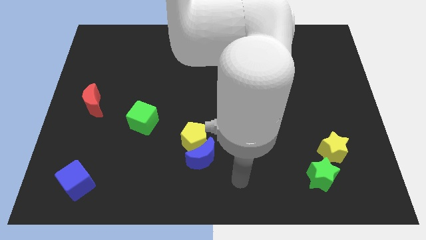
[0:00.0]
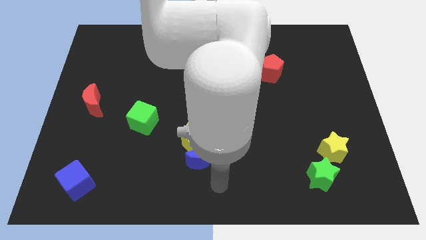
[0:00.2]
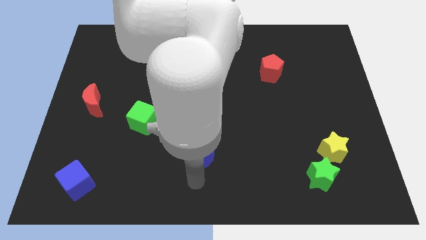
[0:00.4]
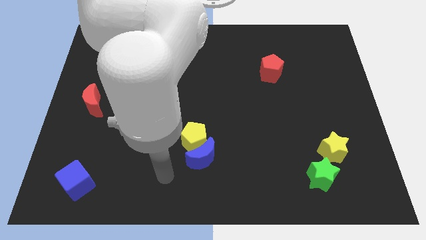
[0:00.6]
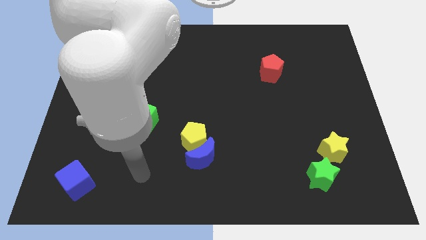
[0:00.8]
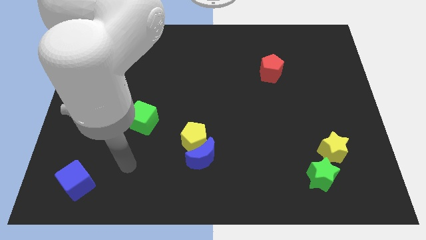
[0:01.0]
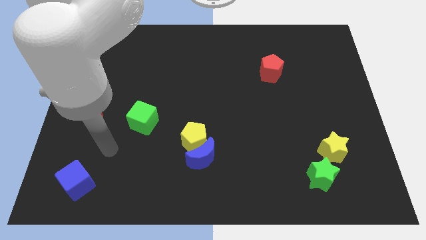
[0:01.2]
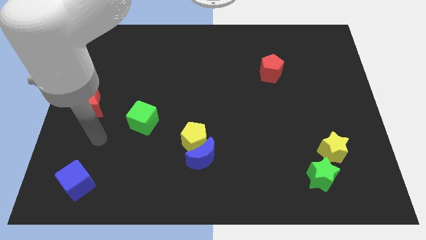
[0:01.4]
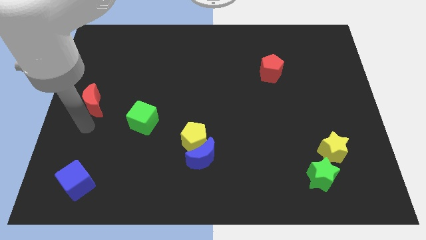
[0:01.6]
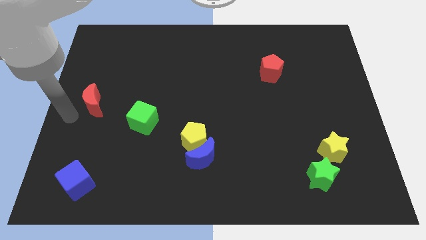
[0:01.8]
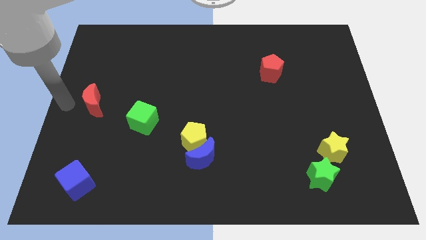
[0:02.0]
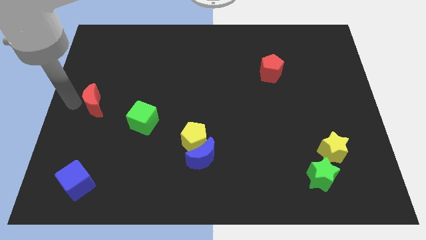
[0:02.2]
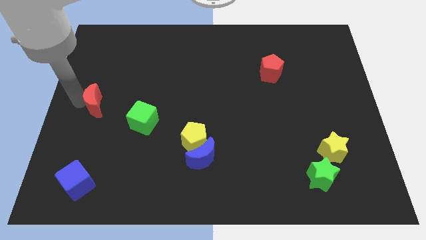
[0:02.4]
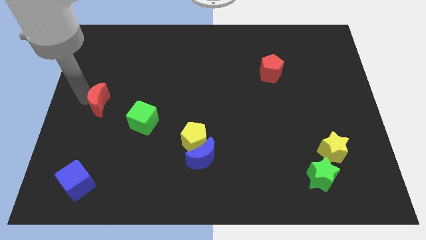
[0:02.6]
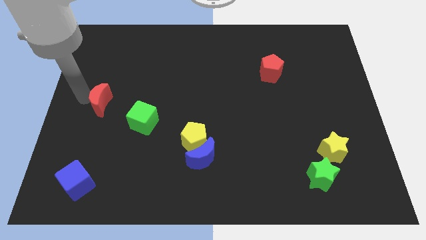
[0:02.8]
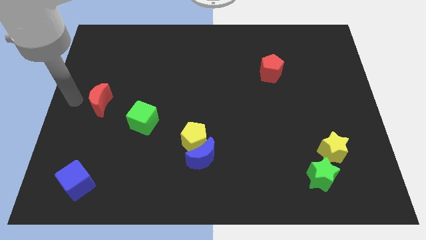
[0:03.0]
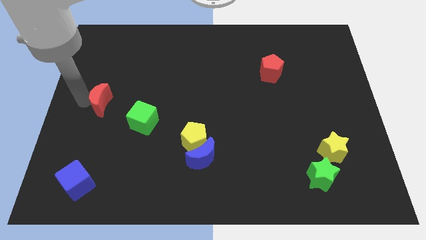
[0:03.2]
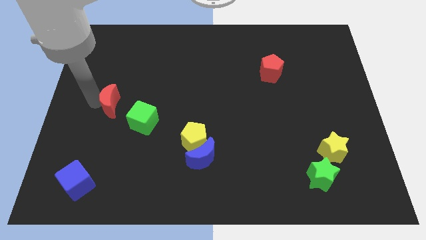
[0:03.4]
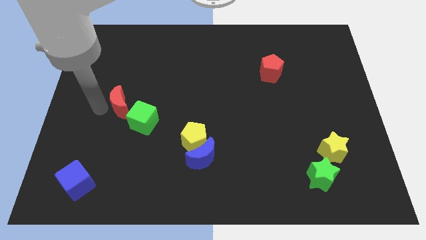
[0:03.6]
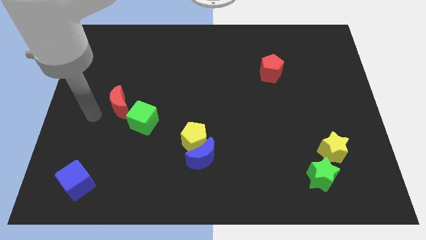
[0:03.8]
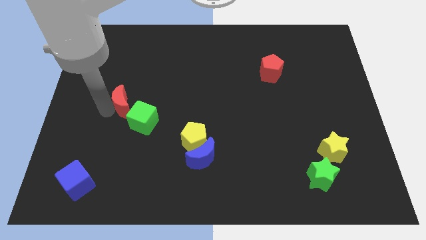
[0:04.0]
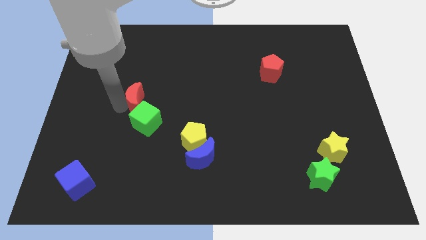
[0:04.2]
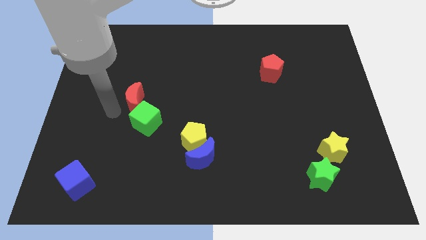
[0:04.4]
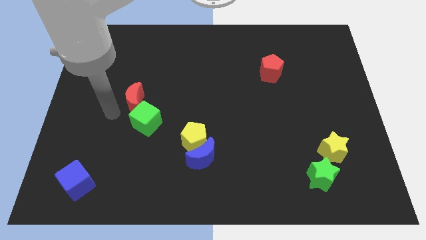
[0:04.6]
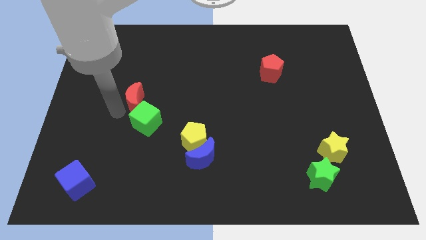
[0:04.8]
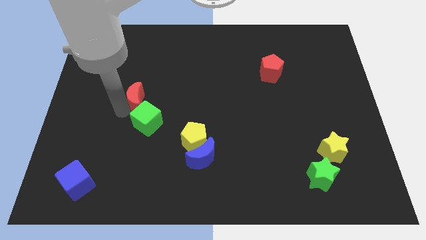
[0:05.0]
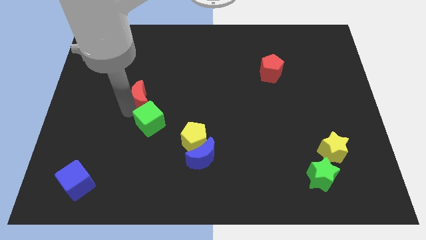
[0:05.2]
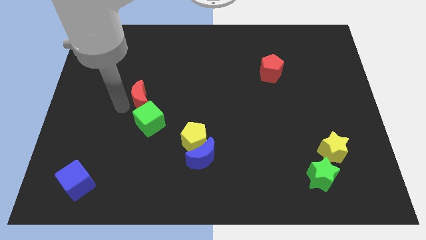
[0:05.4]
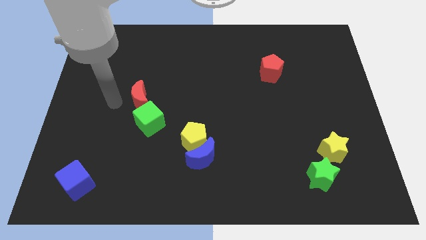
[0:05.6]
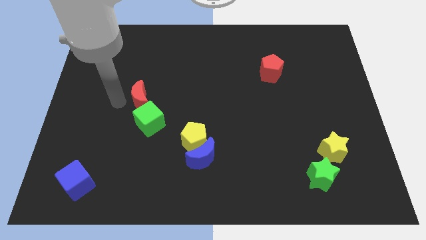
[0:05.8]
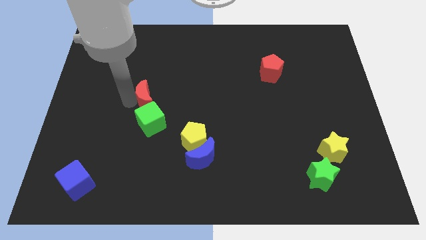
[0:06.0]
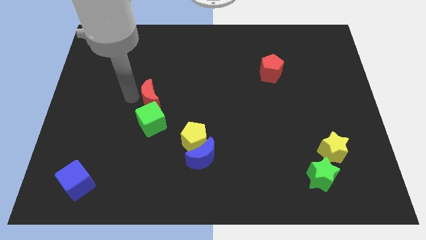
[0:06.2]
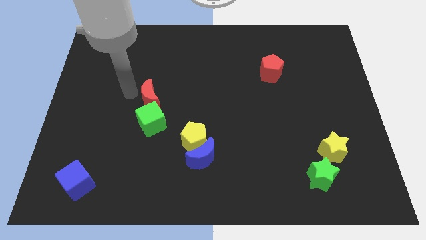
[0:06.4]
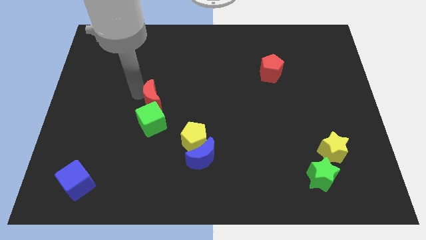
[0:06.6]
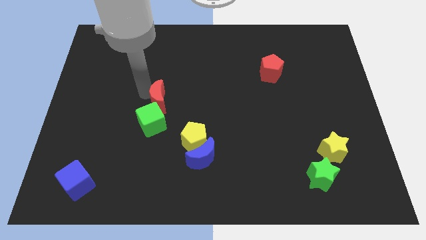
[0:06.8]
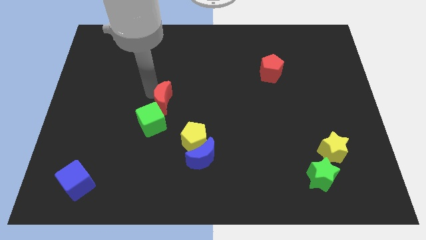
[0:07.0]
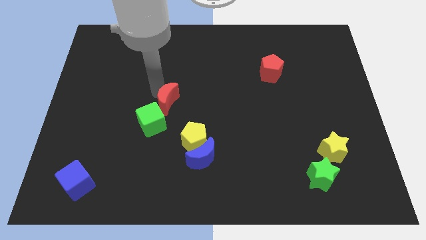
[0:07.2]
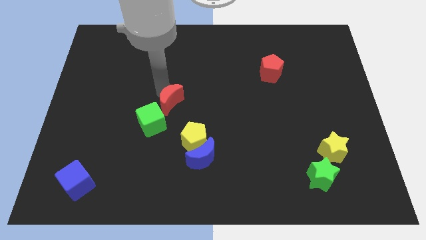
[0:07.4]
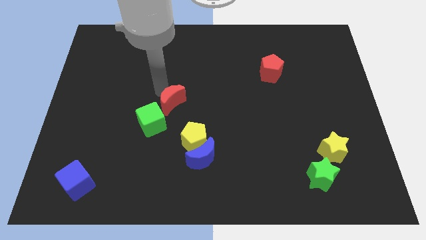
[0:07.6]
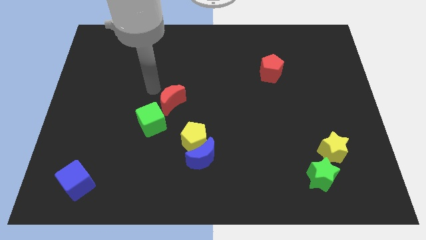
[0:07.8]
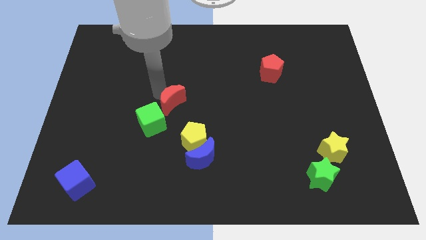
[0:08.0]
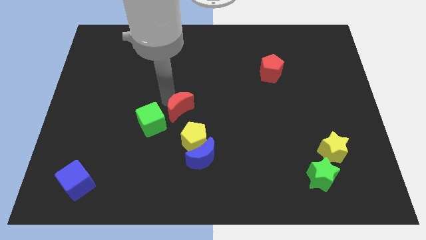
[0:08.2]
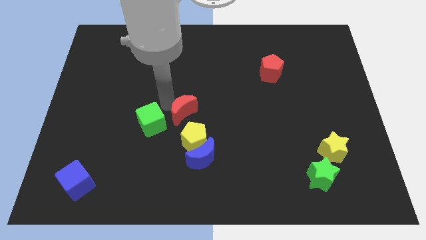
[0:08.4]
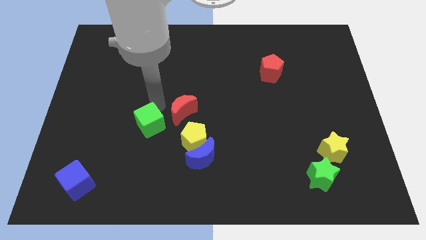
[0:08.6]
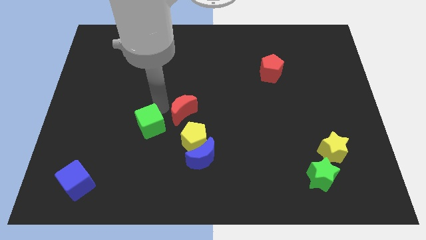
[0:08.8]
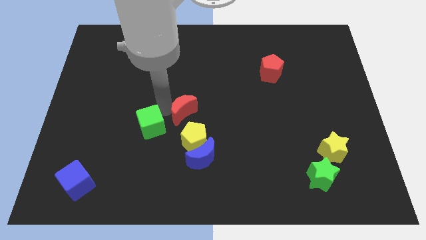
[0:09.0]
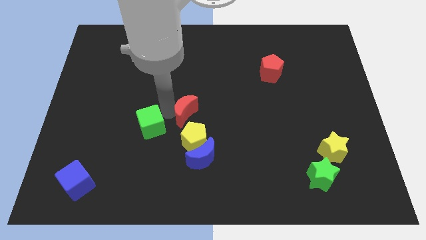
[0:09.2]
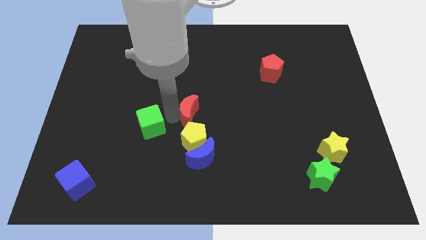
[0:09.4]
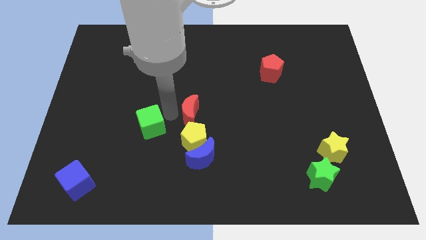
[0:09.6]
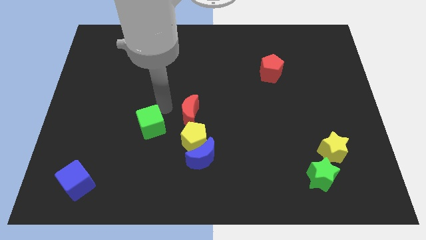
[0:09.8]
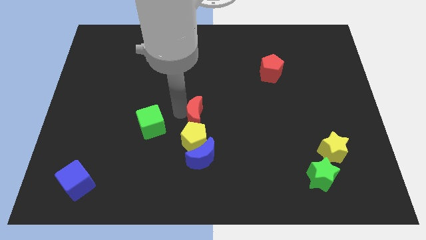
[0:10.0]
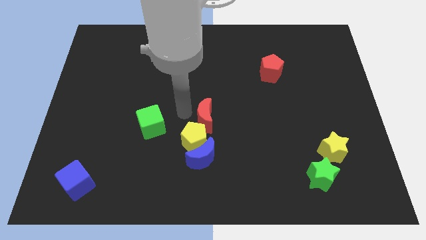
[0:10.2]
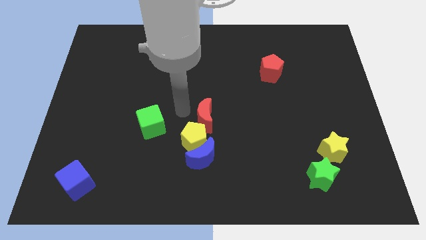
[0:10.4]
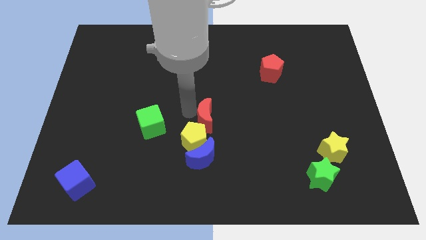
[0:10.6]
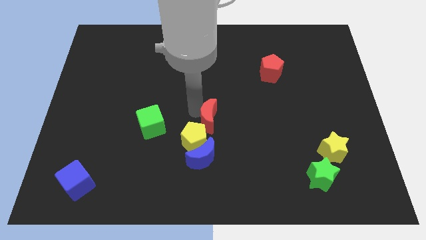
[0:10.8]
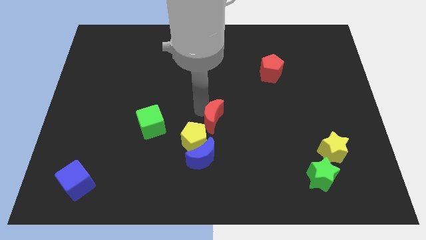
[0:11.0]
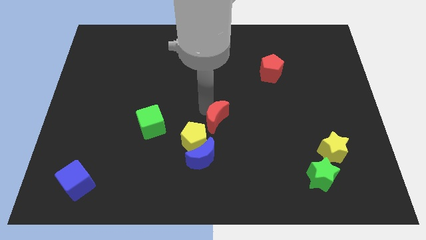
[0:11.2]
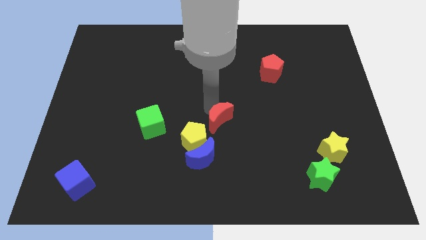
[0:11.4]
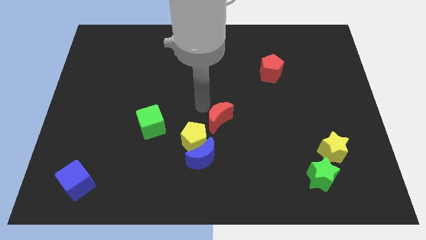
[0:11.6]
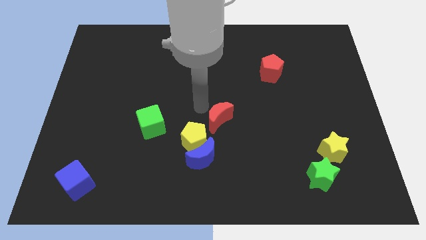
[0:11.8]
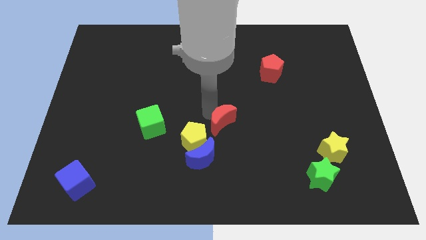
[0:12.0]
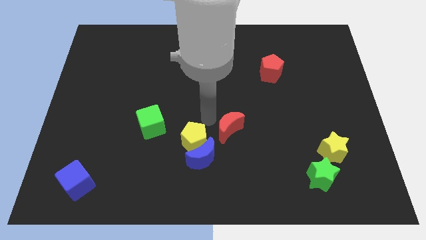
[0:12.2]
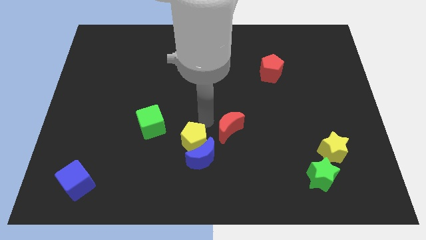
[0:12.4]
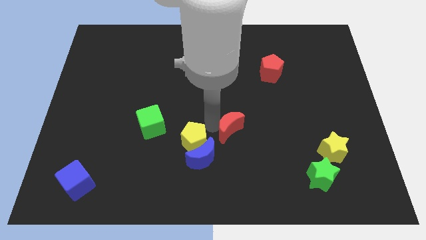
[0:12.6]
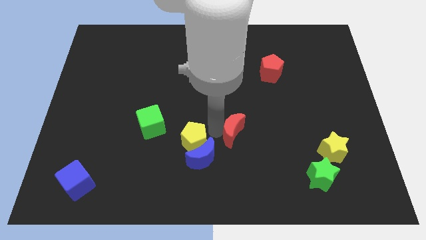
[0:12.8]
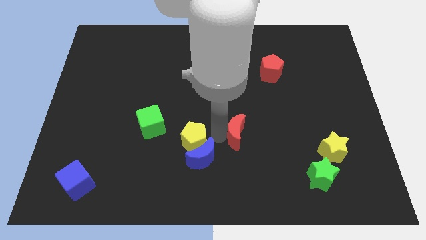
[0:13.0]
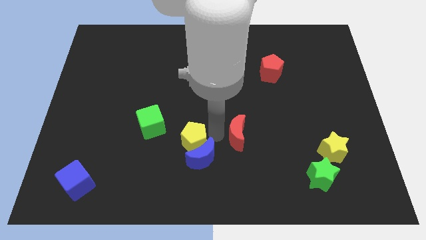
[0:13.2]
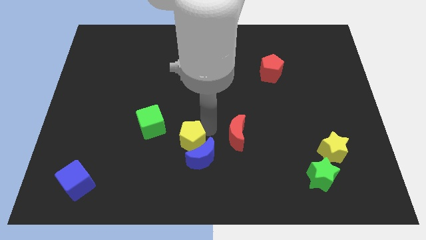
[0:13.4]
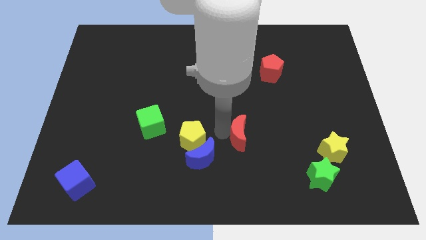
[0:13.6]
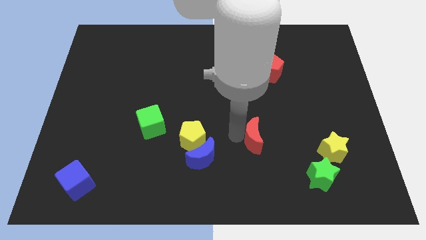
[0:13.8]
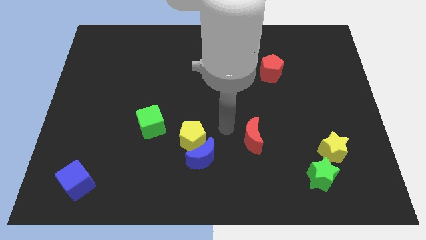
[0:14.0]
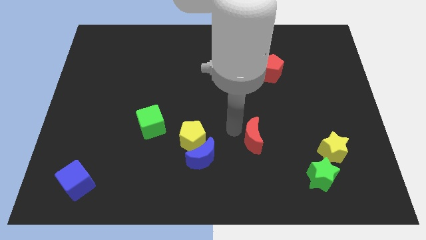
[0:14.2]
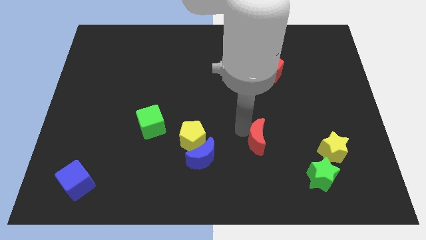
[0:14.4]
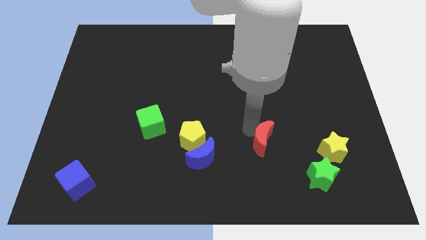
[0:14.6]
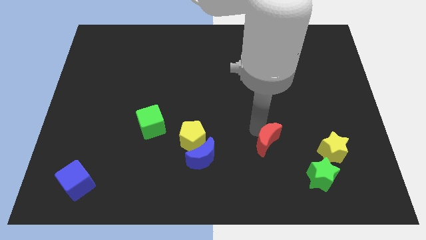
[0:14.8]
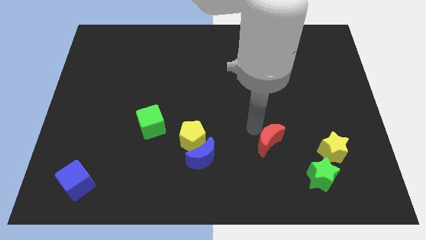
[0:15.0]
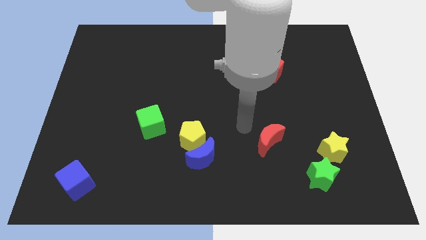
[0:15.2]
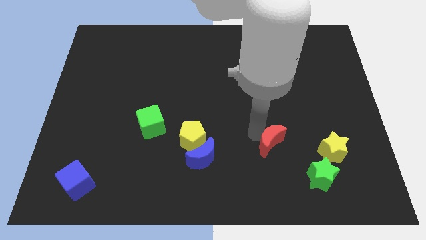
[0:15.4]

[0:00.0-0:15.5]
push the red moon to the top left of the green star
